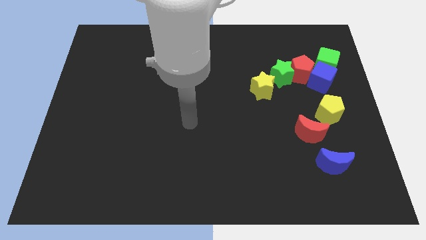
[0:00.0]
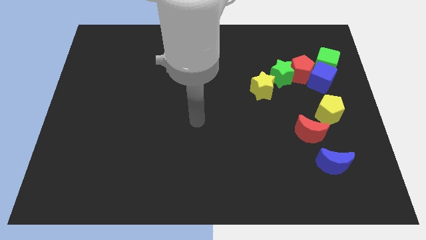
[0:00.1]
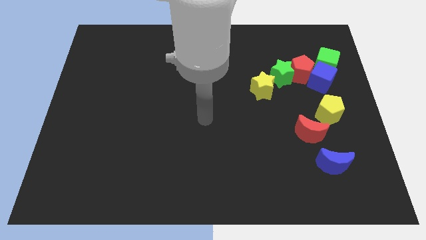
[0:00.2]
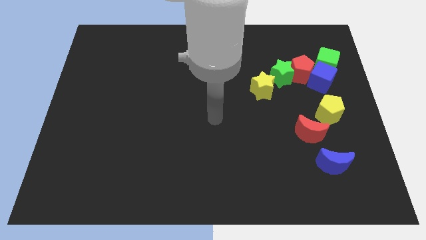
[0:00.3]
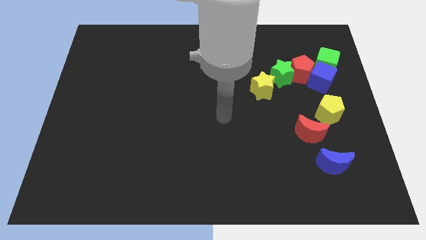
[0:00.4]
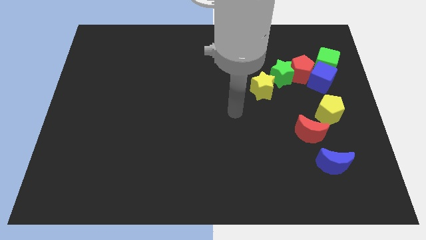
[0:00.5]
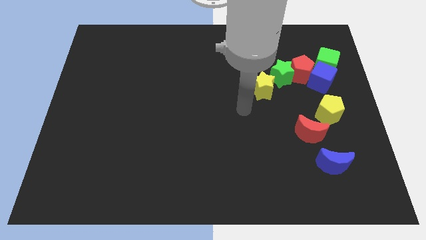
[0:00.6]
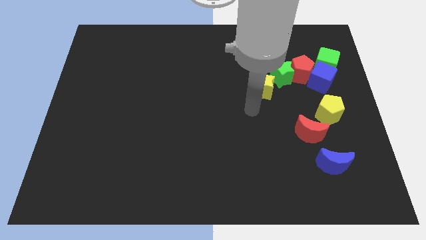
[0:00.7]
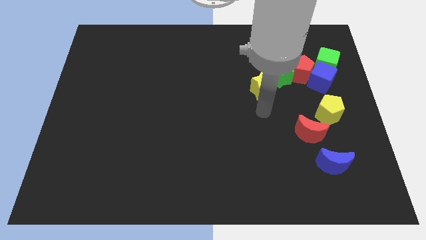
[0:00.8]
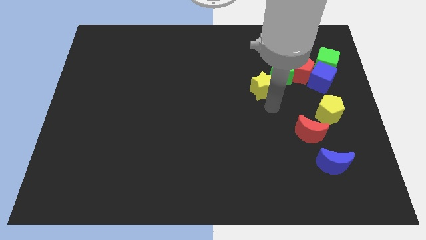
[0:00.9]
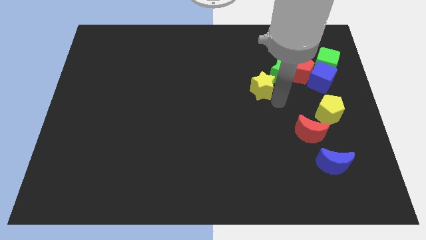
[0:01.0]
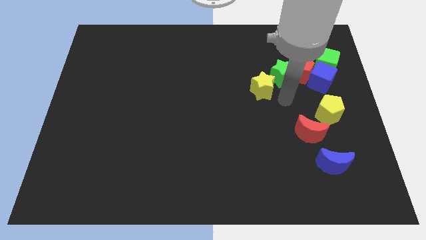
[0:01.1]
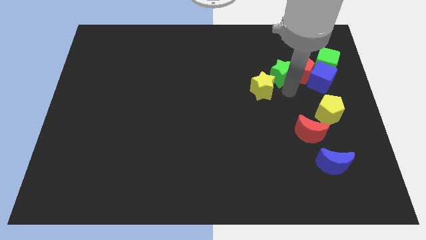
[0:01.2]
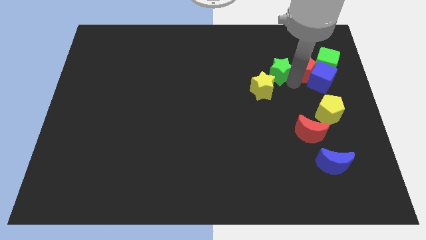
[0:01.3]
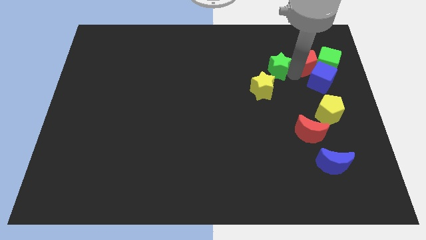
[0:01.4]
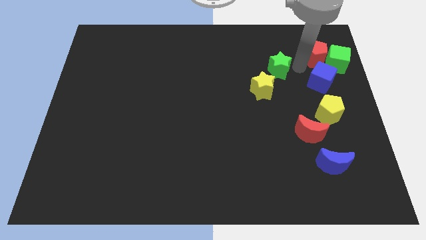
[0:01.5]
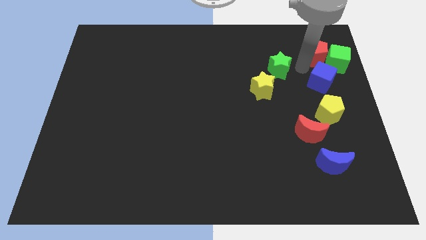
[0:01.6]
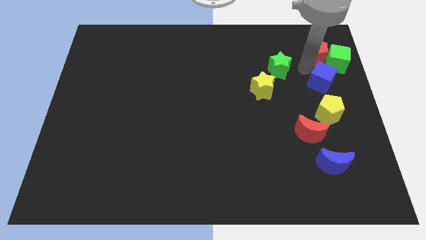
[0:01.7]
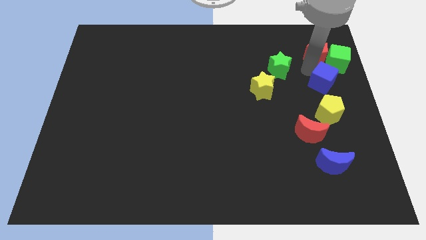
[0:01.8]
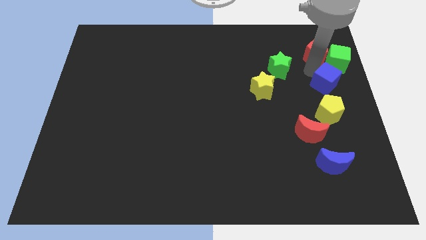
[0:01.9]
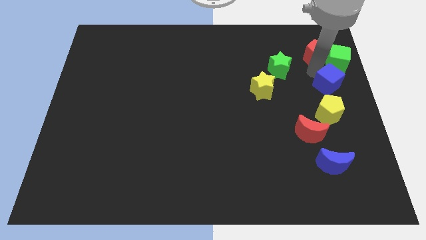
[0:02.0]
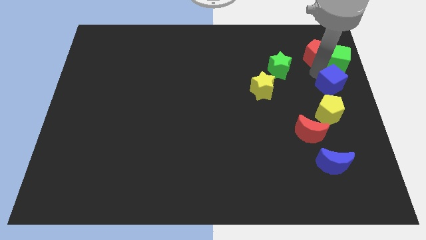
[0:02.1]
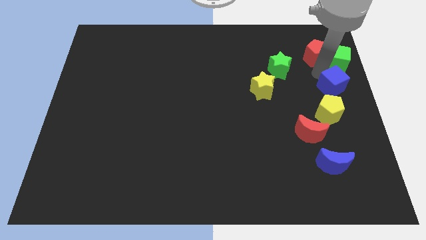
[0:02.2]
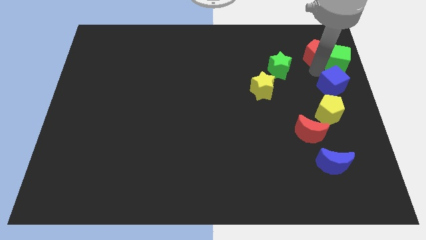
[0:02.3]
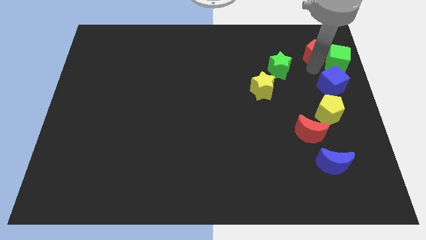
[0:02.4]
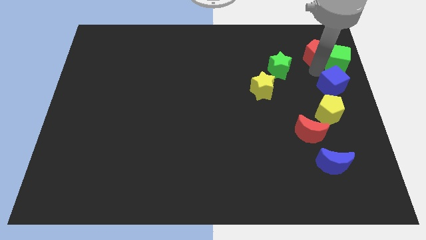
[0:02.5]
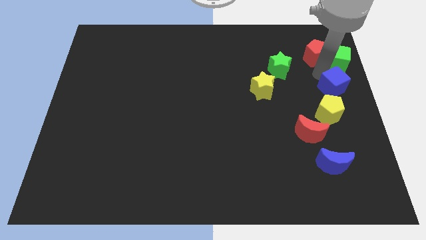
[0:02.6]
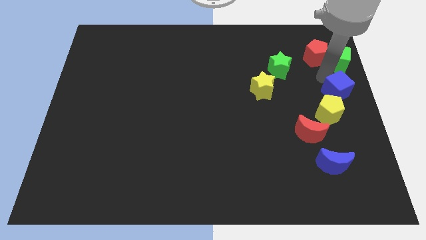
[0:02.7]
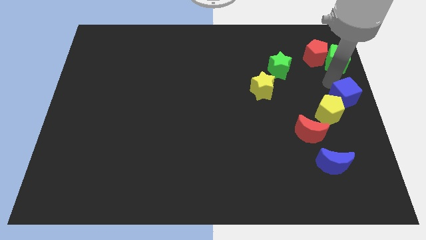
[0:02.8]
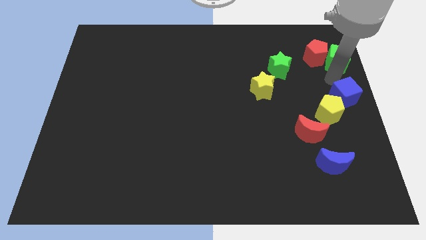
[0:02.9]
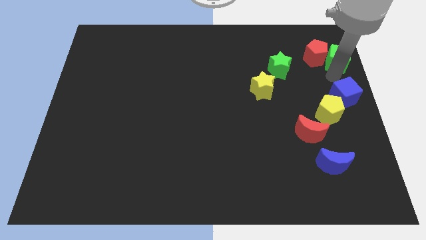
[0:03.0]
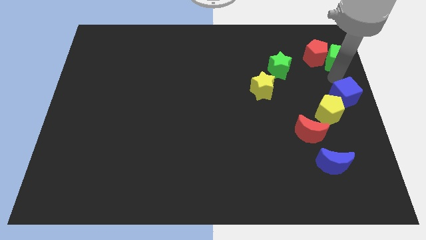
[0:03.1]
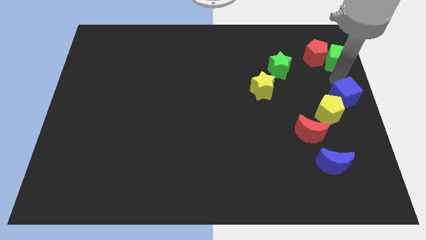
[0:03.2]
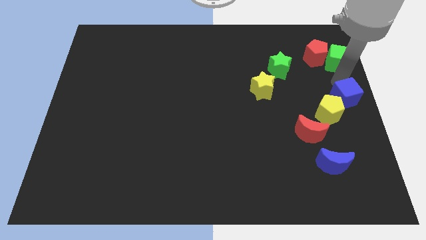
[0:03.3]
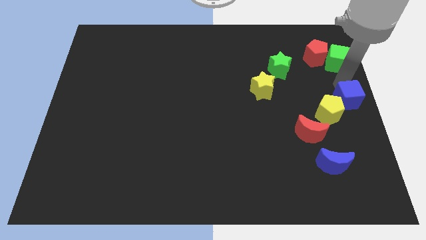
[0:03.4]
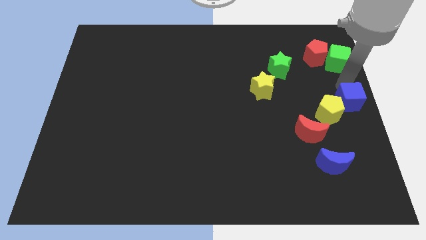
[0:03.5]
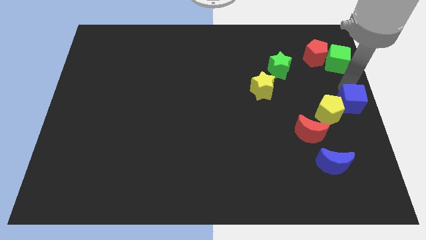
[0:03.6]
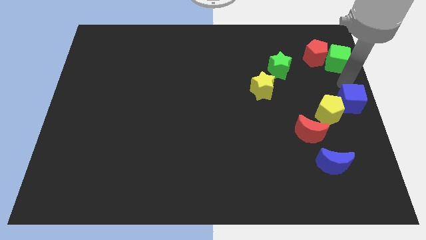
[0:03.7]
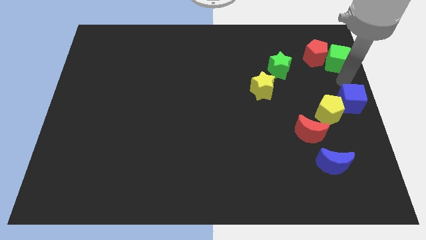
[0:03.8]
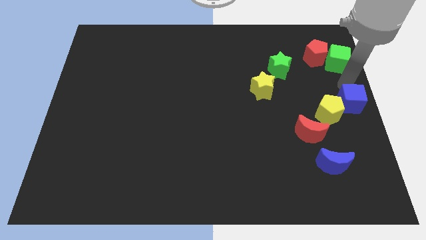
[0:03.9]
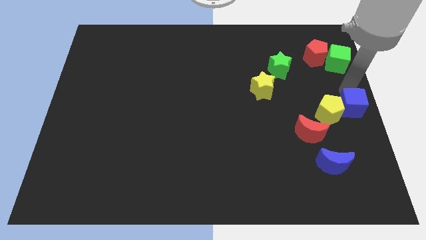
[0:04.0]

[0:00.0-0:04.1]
slide the blue cube a bit down

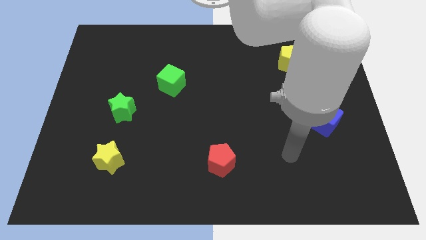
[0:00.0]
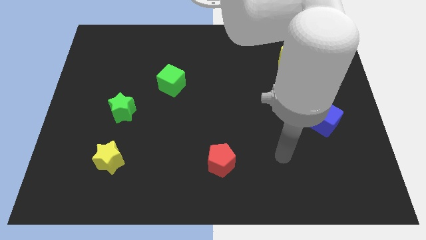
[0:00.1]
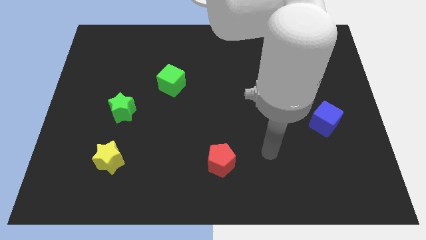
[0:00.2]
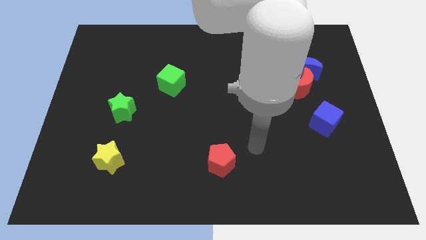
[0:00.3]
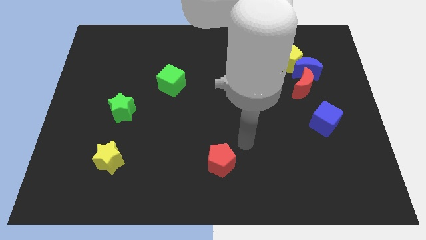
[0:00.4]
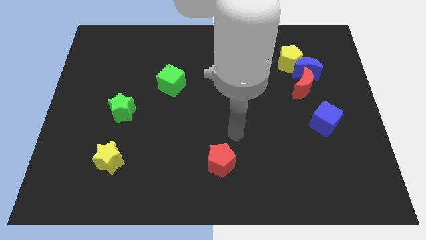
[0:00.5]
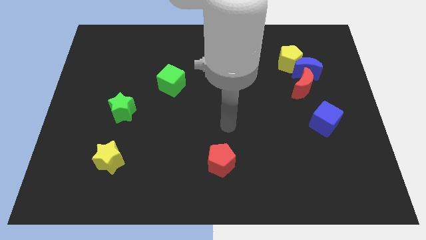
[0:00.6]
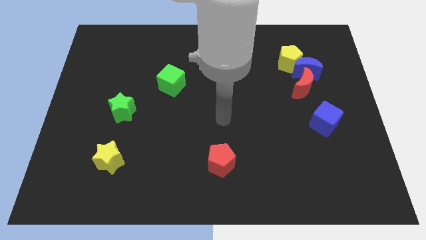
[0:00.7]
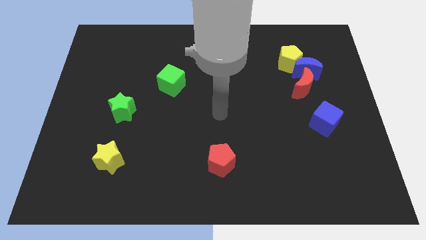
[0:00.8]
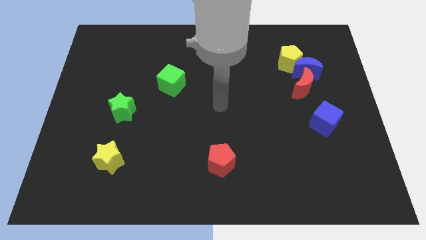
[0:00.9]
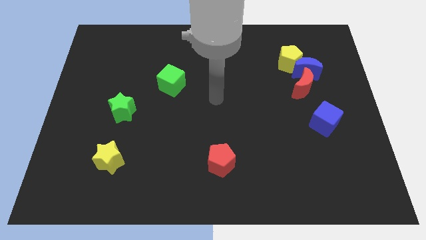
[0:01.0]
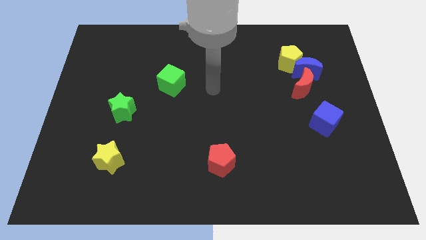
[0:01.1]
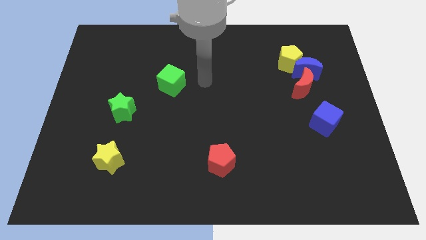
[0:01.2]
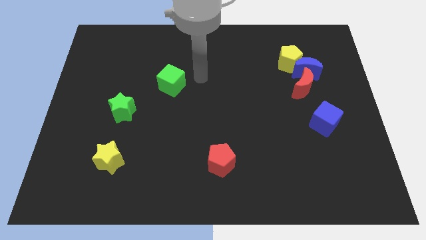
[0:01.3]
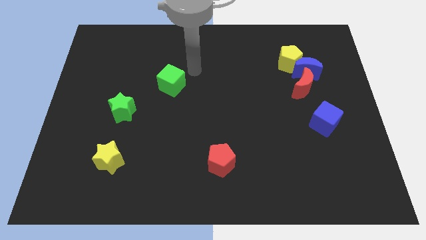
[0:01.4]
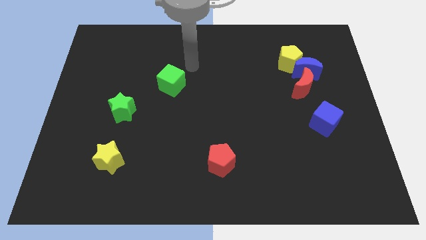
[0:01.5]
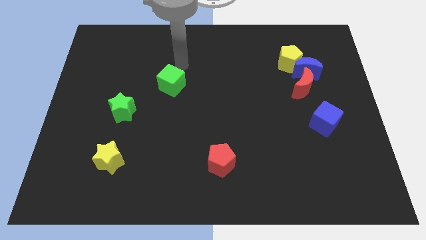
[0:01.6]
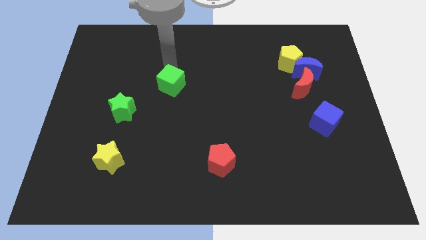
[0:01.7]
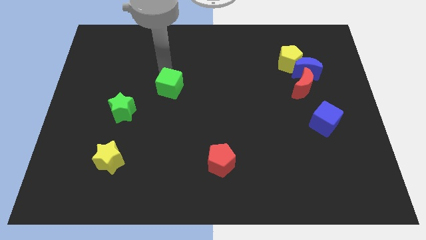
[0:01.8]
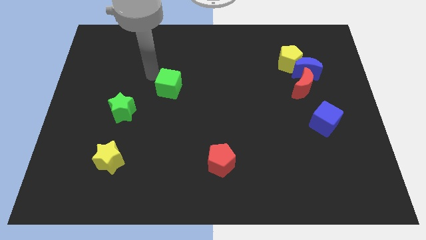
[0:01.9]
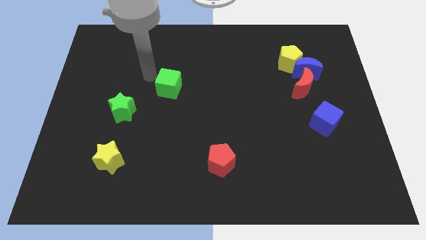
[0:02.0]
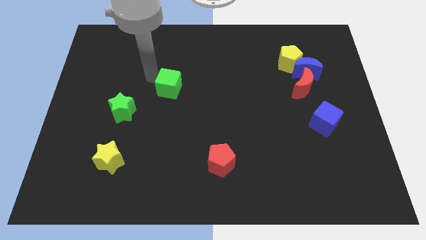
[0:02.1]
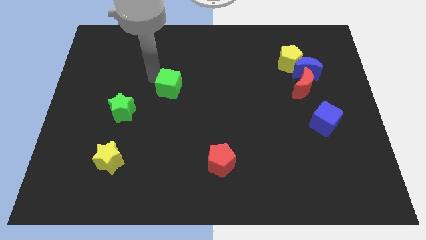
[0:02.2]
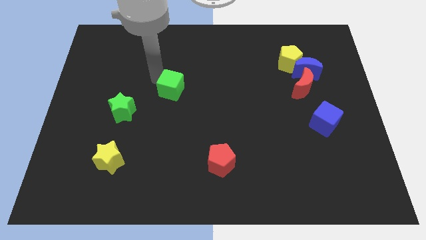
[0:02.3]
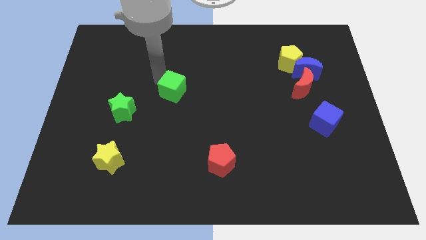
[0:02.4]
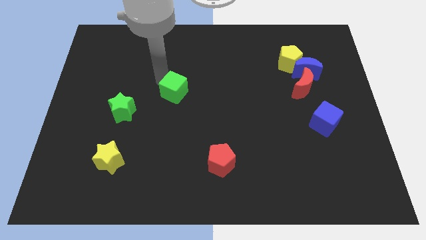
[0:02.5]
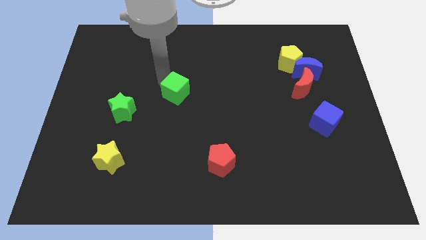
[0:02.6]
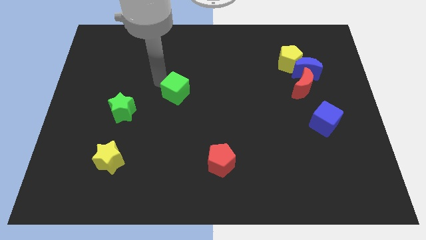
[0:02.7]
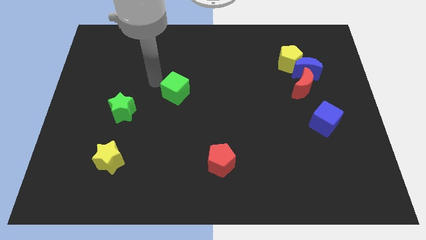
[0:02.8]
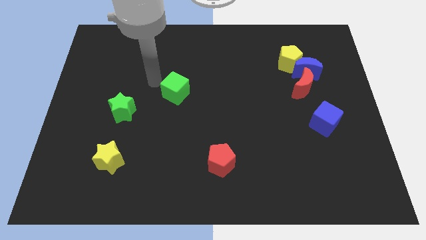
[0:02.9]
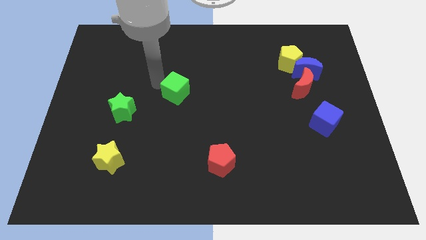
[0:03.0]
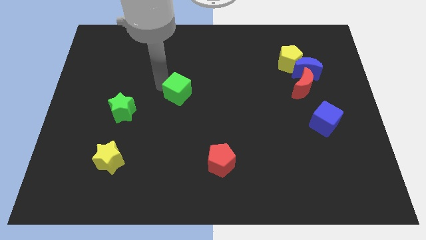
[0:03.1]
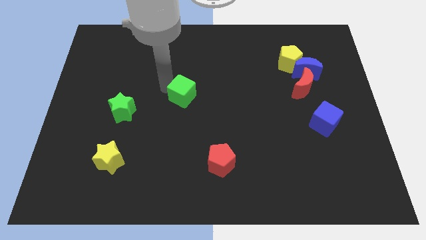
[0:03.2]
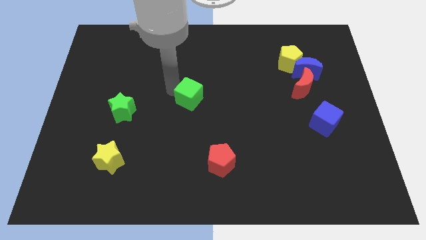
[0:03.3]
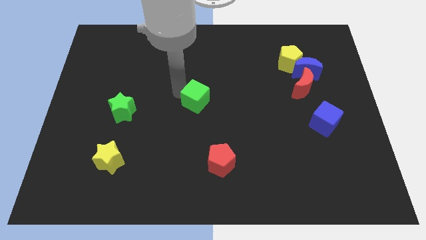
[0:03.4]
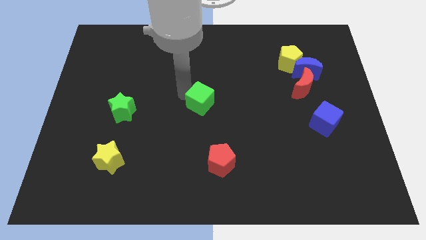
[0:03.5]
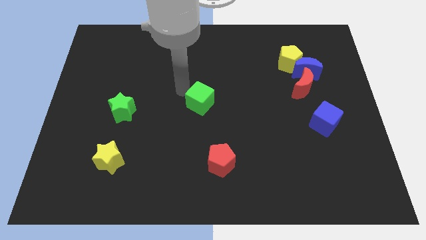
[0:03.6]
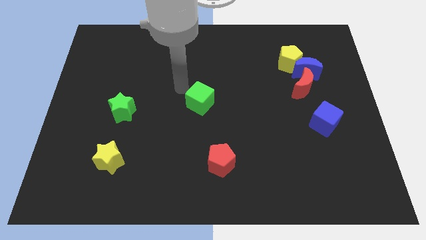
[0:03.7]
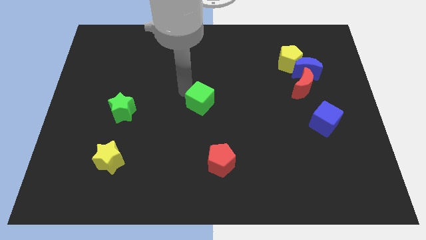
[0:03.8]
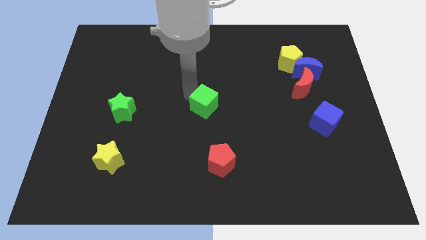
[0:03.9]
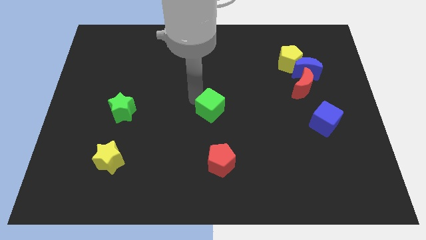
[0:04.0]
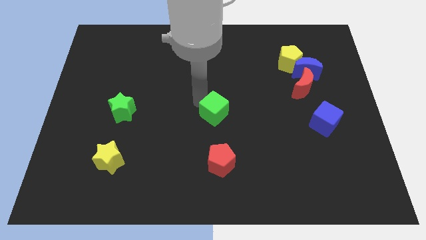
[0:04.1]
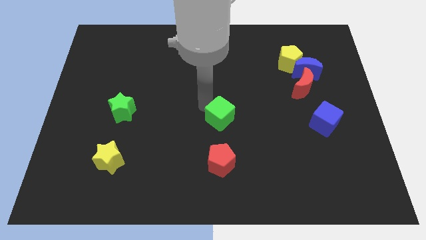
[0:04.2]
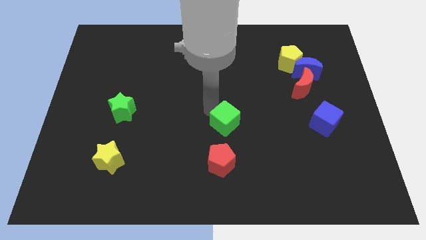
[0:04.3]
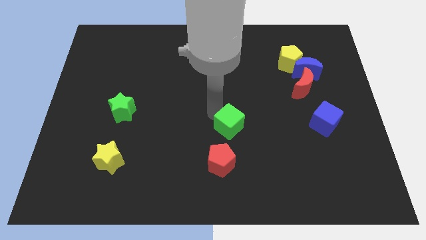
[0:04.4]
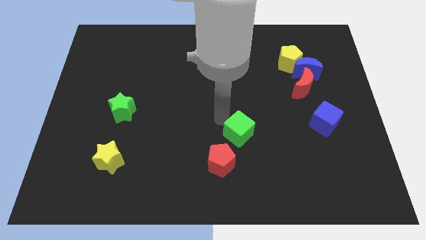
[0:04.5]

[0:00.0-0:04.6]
slide the green cube downwards and right
